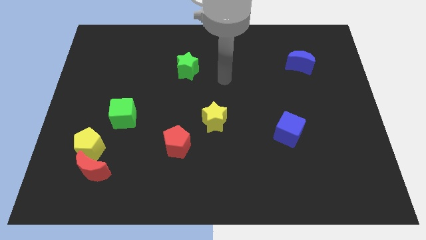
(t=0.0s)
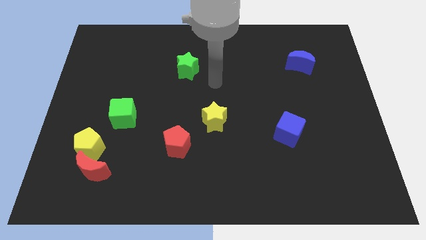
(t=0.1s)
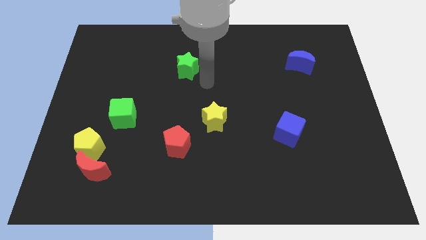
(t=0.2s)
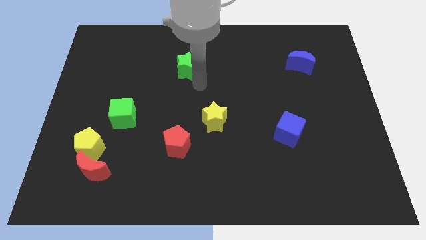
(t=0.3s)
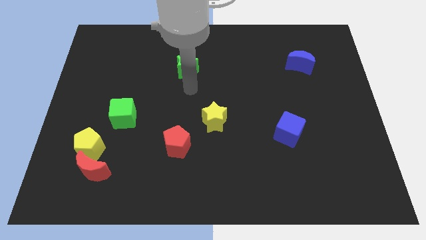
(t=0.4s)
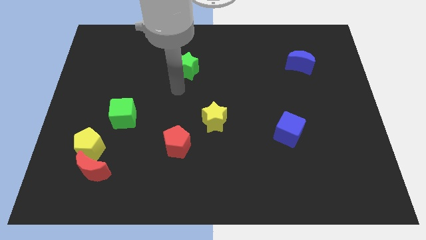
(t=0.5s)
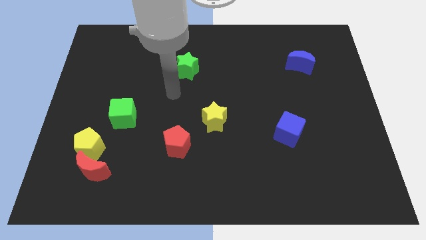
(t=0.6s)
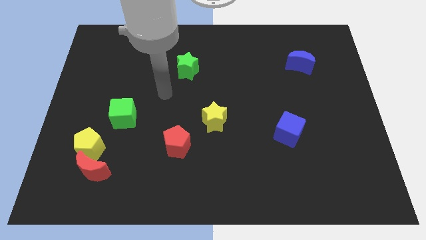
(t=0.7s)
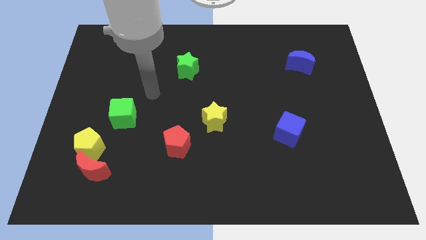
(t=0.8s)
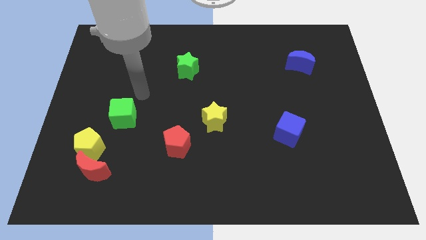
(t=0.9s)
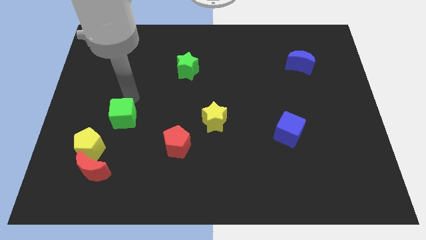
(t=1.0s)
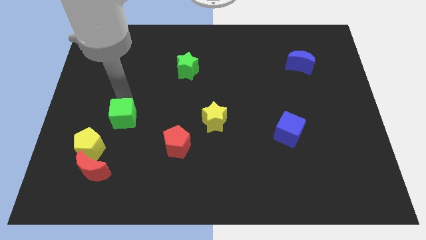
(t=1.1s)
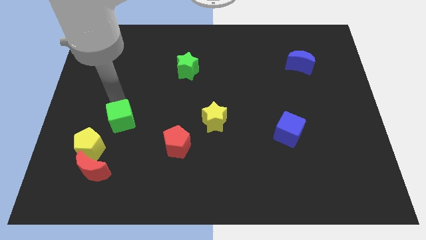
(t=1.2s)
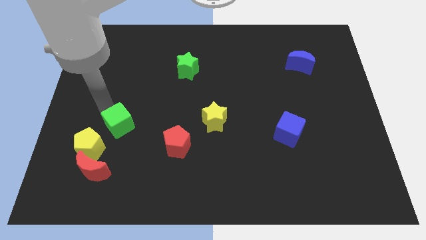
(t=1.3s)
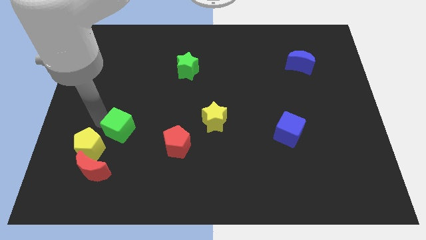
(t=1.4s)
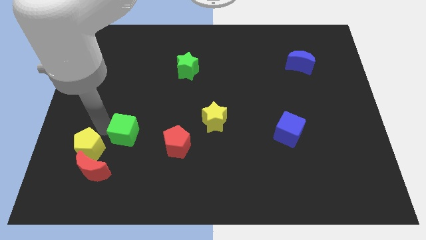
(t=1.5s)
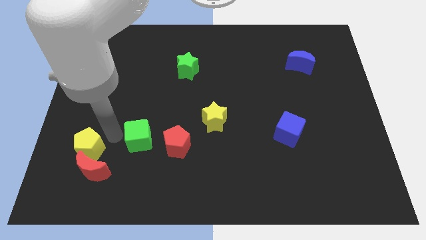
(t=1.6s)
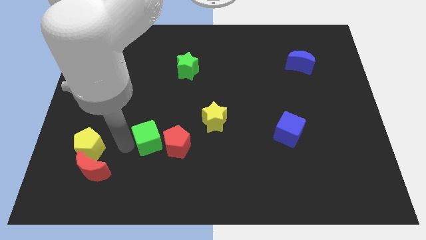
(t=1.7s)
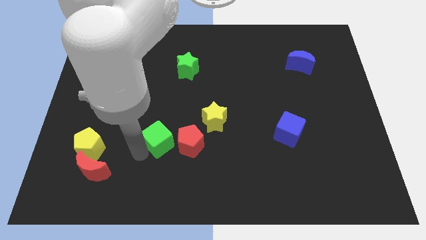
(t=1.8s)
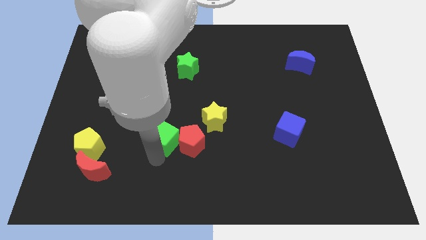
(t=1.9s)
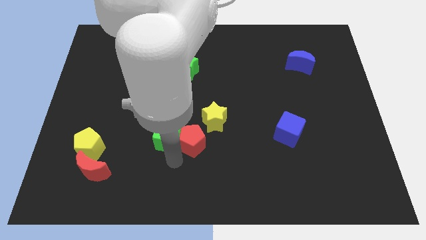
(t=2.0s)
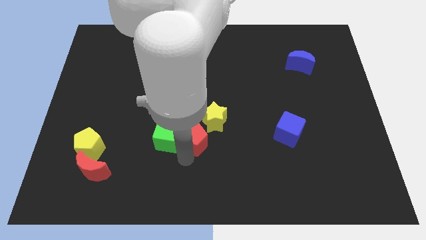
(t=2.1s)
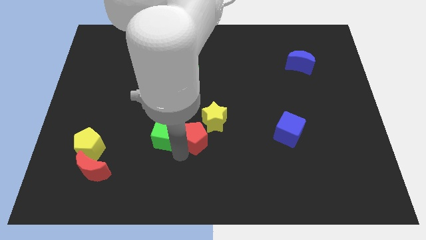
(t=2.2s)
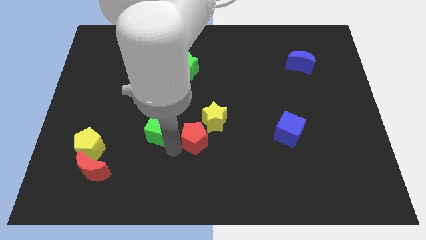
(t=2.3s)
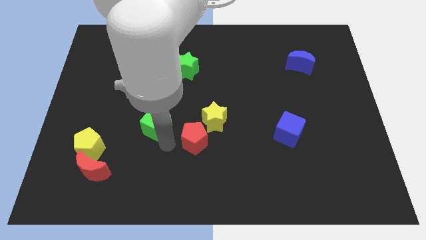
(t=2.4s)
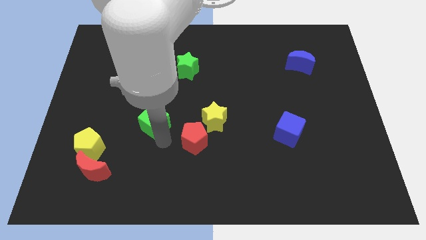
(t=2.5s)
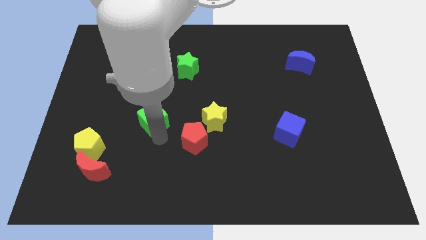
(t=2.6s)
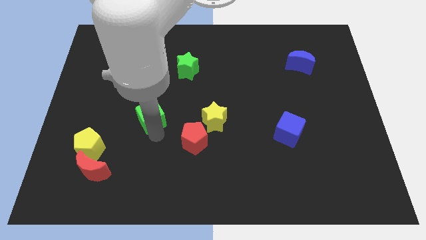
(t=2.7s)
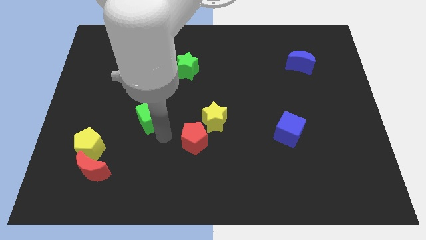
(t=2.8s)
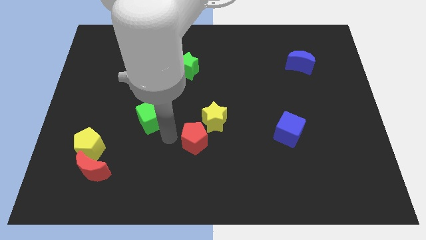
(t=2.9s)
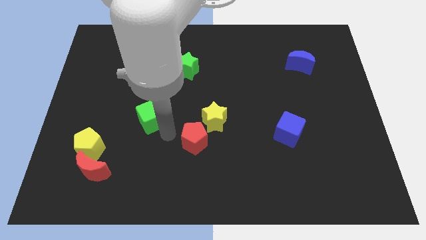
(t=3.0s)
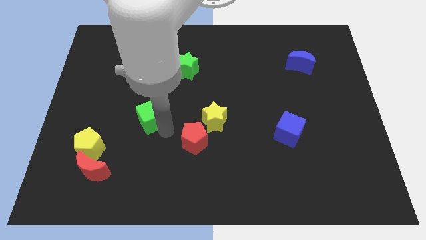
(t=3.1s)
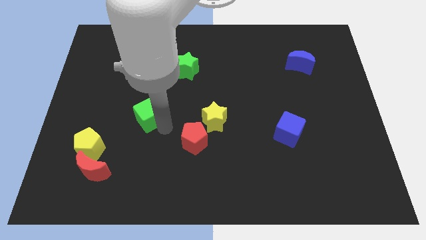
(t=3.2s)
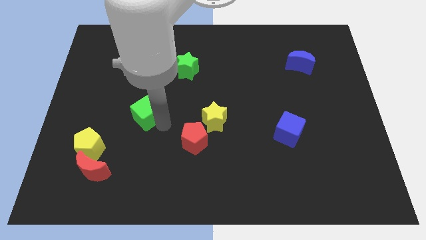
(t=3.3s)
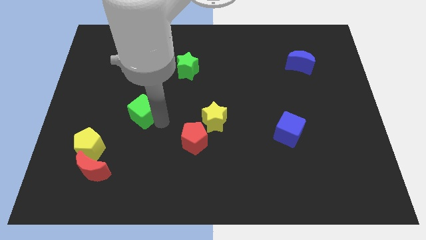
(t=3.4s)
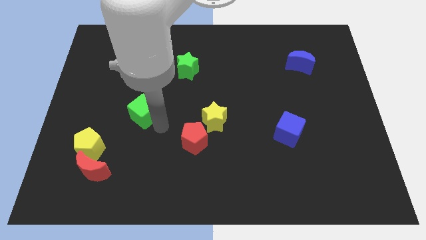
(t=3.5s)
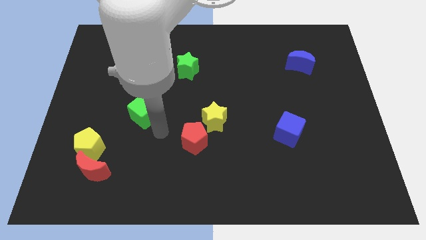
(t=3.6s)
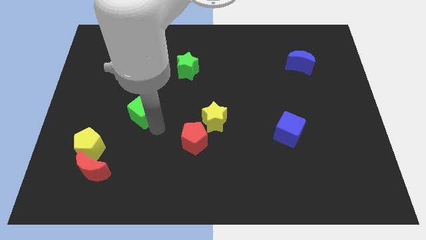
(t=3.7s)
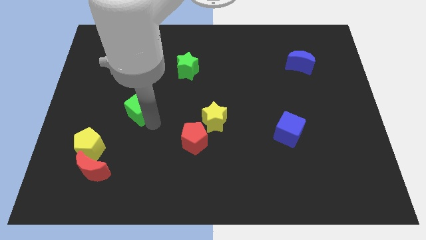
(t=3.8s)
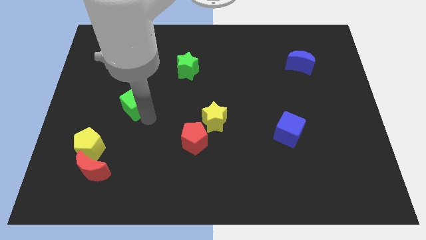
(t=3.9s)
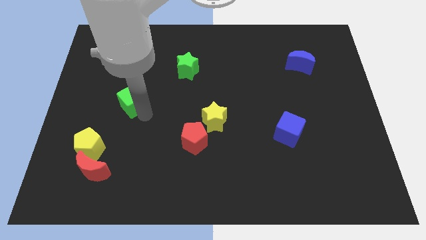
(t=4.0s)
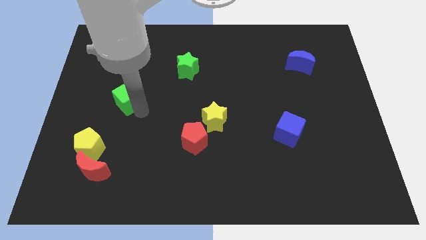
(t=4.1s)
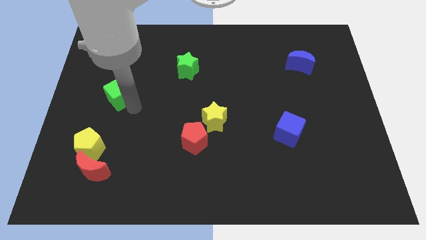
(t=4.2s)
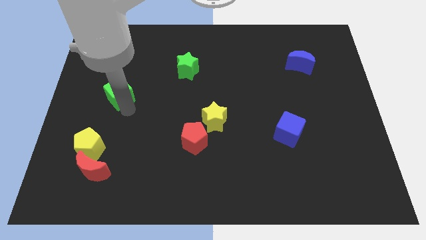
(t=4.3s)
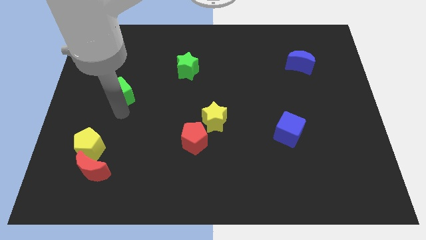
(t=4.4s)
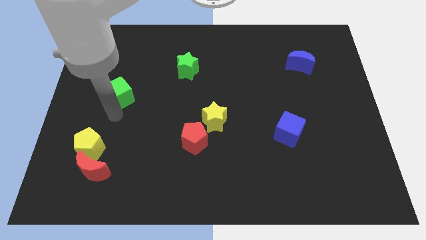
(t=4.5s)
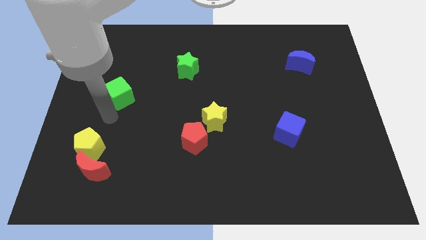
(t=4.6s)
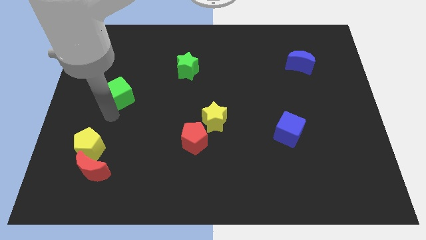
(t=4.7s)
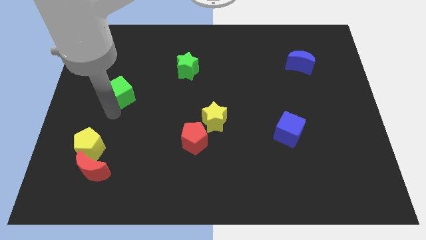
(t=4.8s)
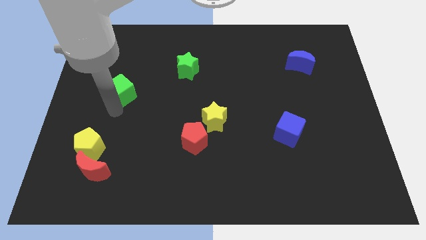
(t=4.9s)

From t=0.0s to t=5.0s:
slightly move the green cube upwards

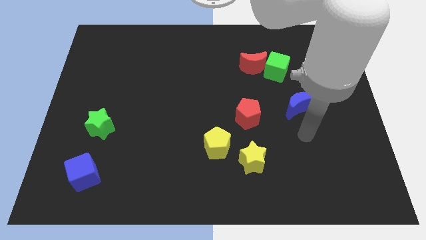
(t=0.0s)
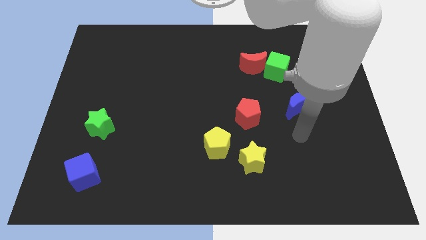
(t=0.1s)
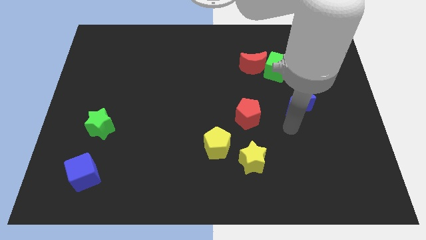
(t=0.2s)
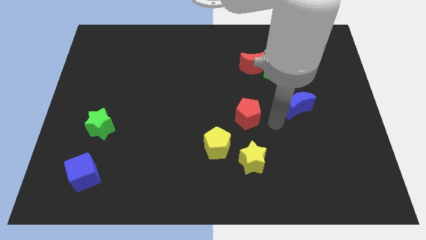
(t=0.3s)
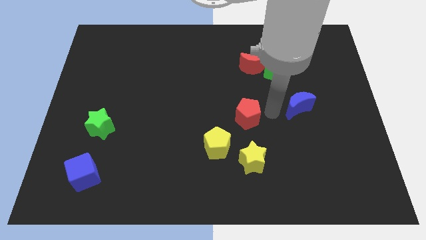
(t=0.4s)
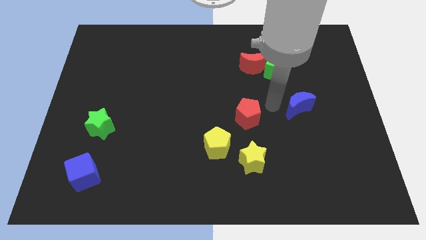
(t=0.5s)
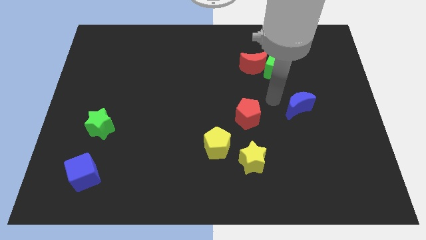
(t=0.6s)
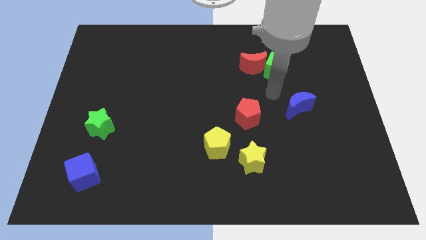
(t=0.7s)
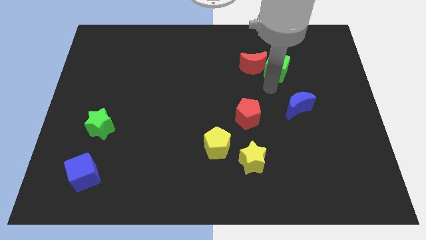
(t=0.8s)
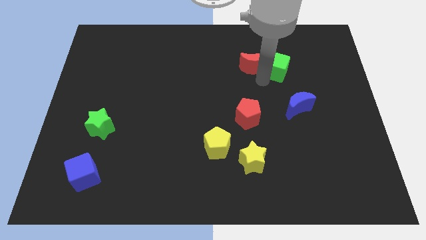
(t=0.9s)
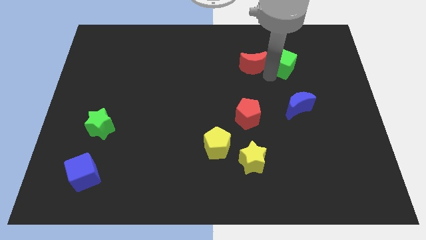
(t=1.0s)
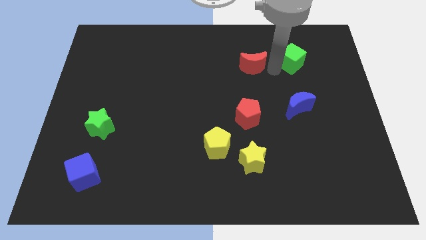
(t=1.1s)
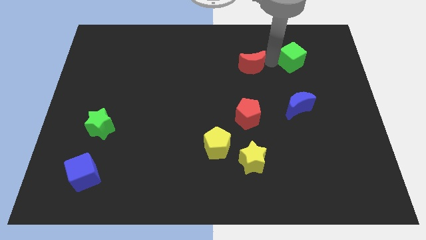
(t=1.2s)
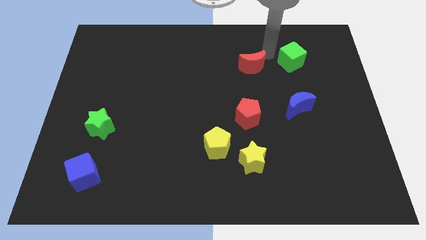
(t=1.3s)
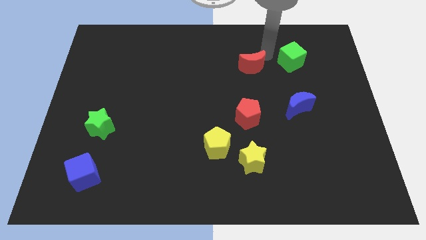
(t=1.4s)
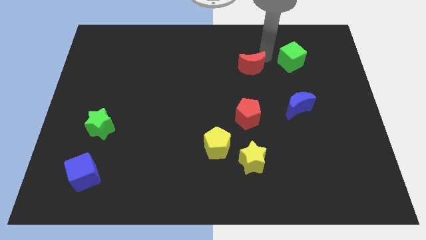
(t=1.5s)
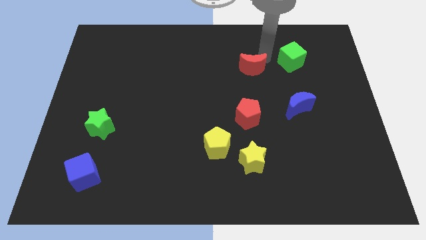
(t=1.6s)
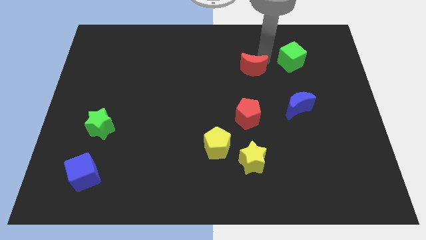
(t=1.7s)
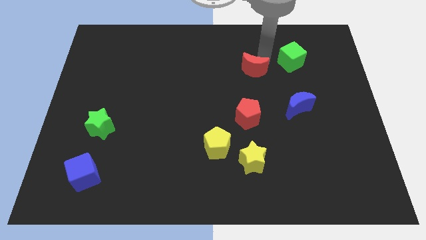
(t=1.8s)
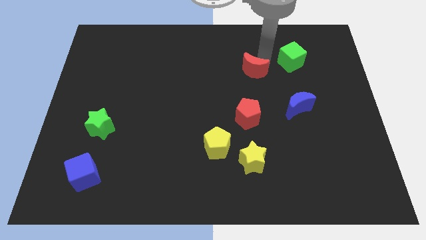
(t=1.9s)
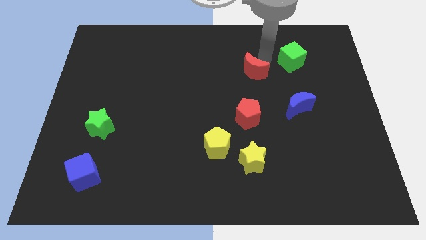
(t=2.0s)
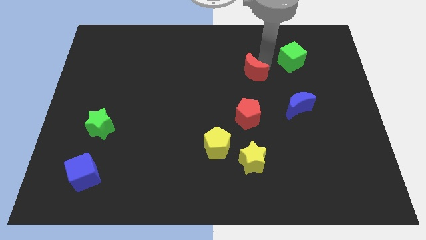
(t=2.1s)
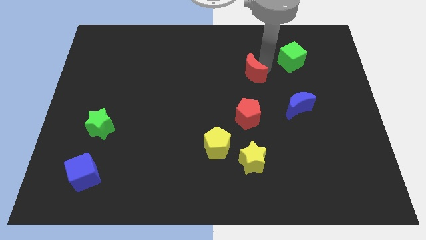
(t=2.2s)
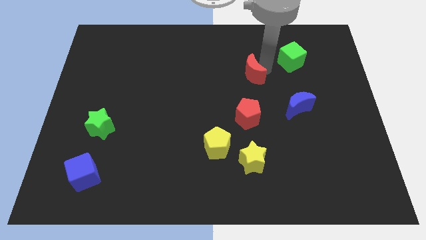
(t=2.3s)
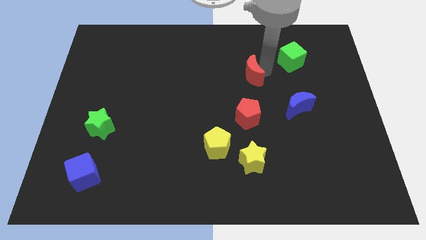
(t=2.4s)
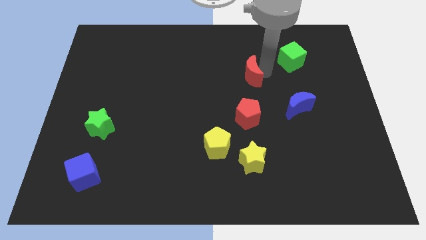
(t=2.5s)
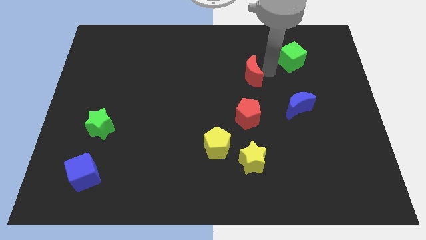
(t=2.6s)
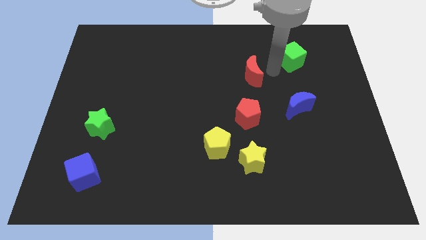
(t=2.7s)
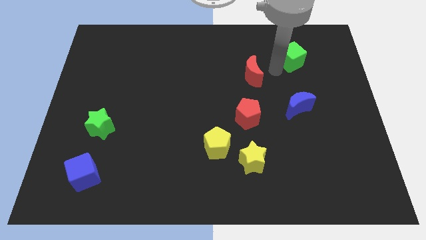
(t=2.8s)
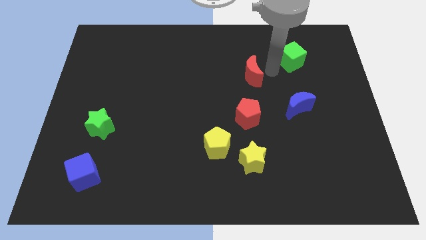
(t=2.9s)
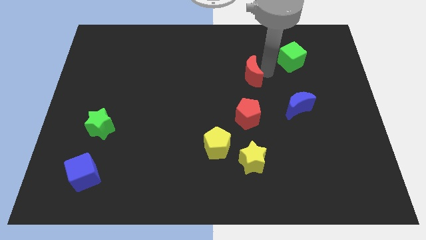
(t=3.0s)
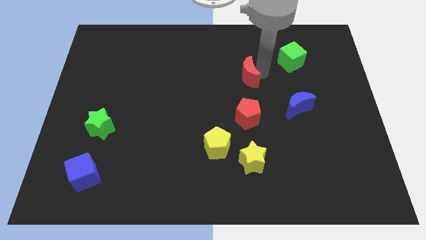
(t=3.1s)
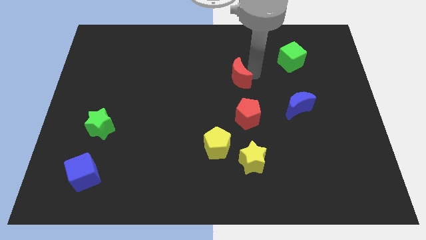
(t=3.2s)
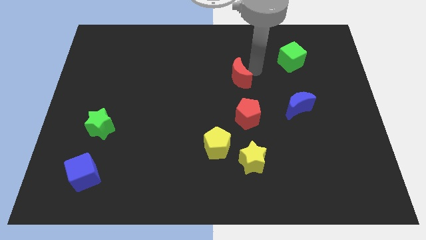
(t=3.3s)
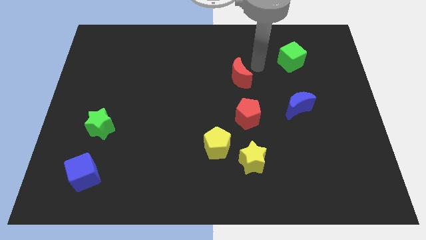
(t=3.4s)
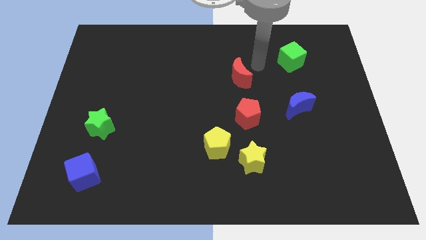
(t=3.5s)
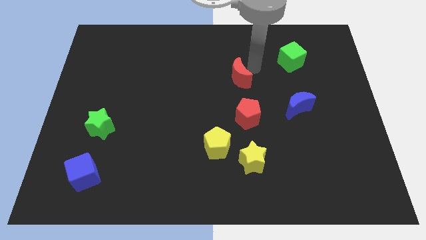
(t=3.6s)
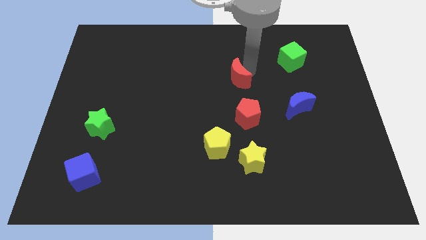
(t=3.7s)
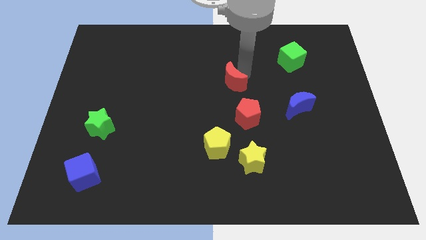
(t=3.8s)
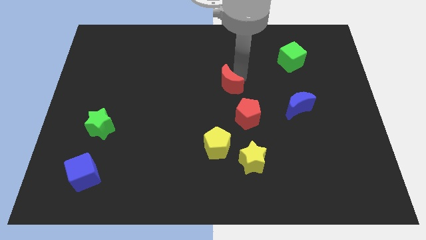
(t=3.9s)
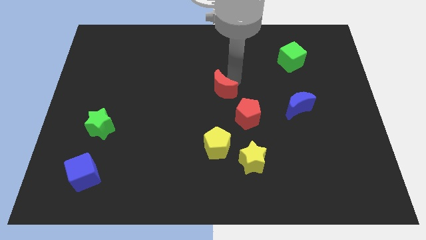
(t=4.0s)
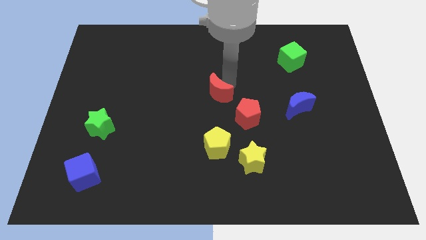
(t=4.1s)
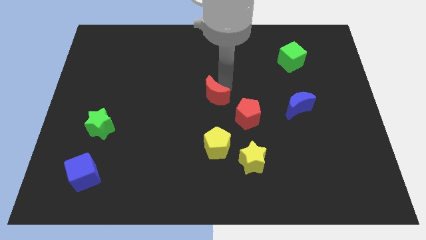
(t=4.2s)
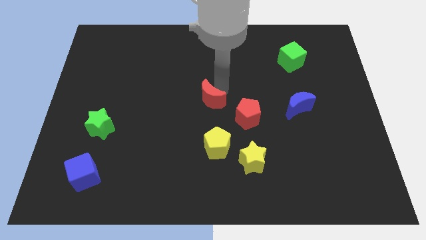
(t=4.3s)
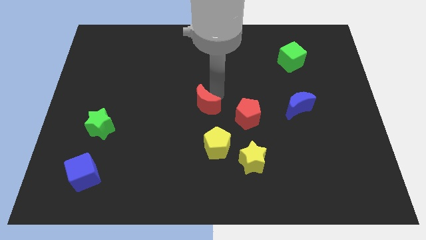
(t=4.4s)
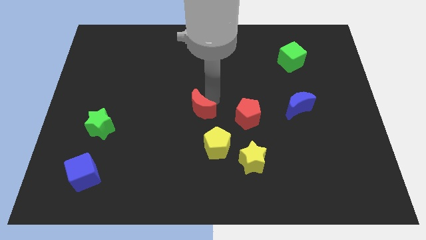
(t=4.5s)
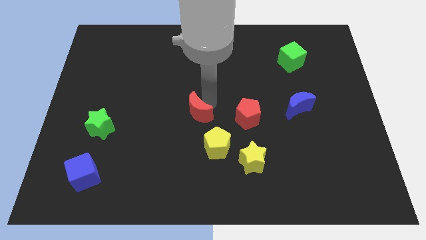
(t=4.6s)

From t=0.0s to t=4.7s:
push the red moon diagonally downwards and to the left
